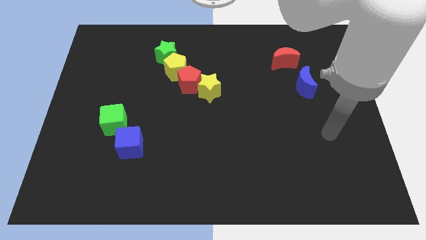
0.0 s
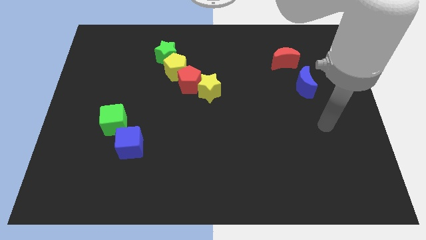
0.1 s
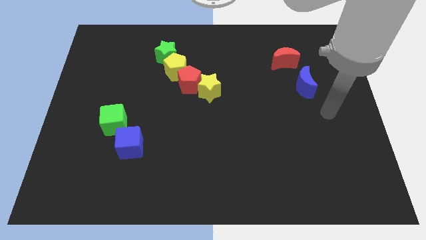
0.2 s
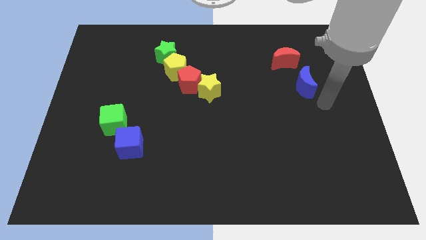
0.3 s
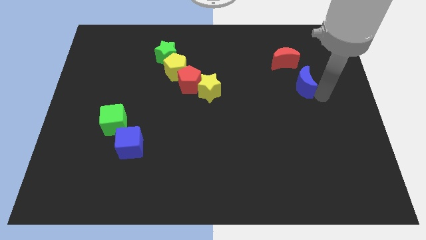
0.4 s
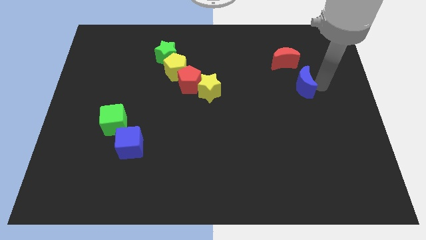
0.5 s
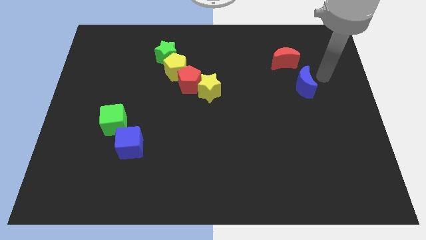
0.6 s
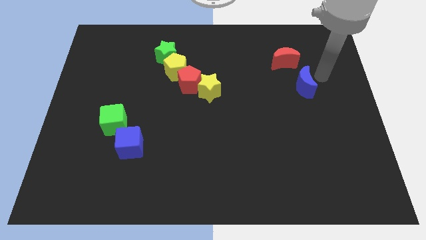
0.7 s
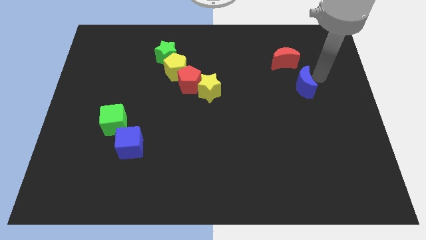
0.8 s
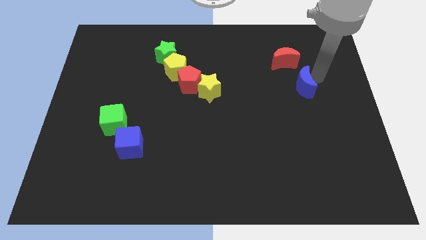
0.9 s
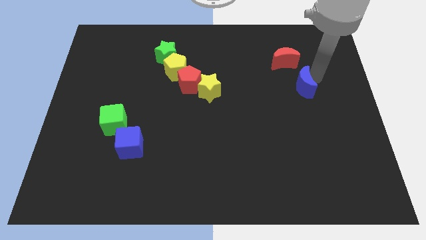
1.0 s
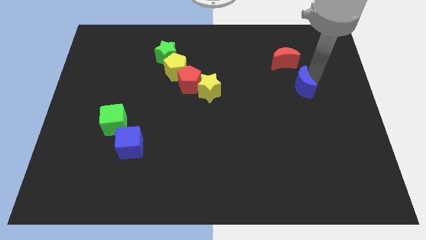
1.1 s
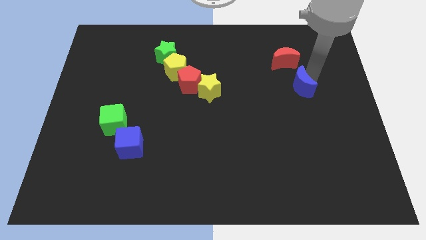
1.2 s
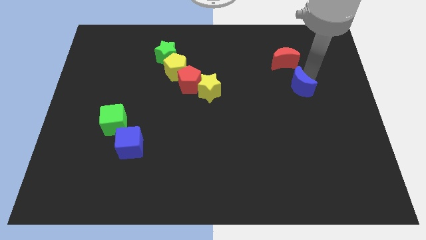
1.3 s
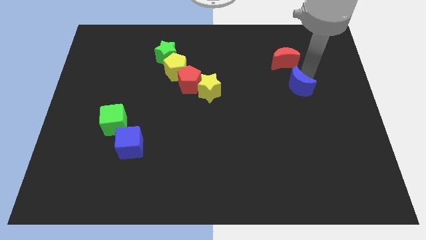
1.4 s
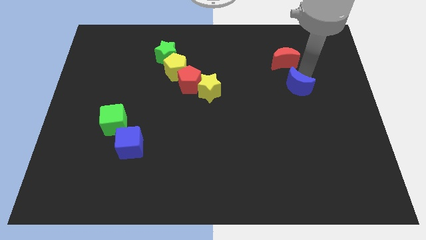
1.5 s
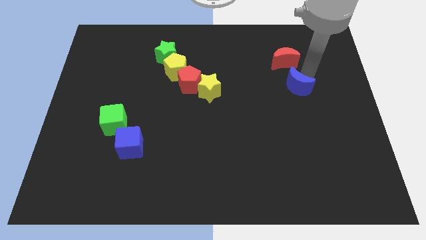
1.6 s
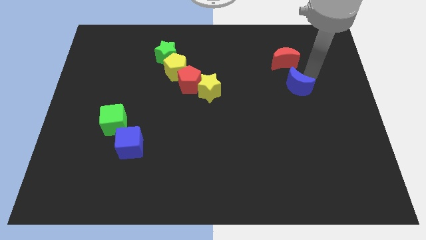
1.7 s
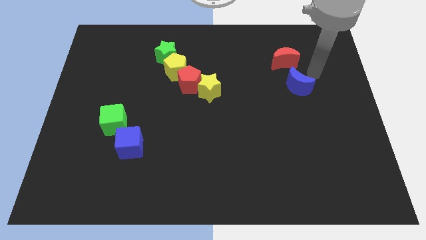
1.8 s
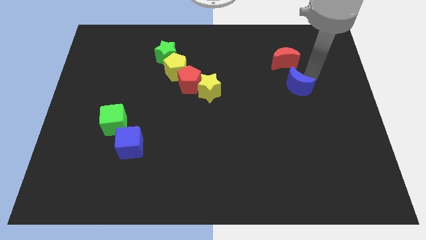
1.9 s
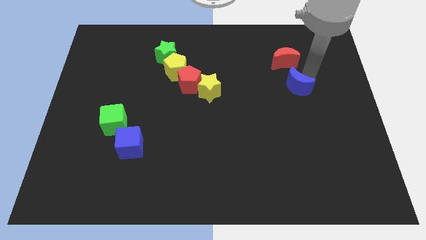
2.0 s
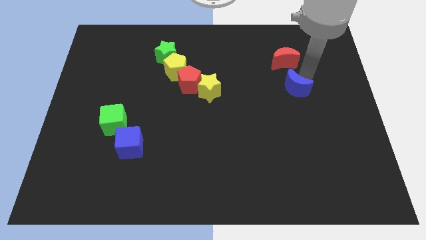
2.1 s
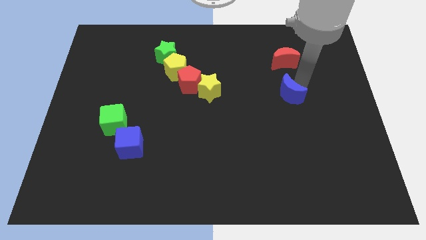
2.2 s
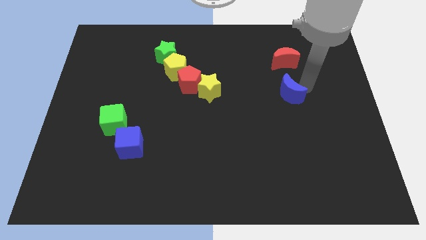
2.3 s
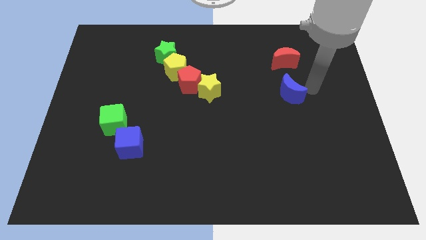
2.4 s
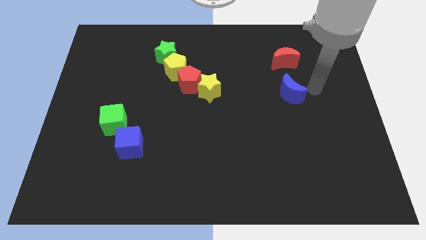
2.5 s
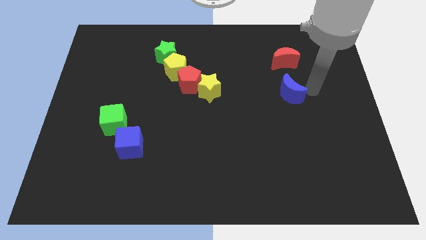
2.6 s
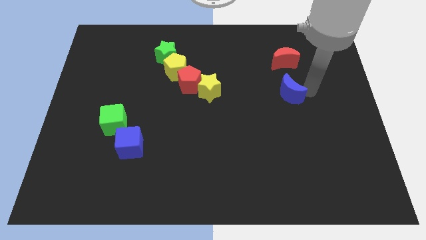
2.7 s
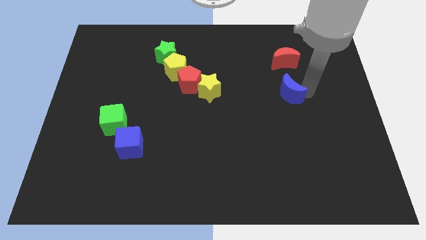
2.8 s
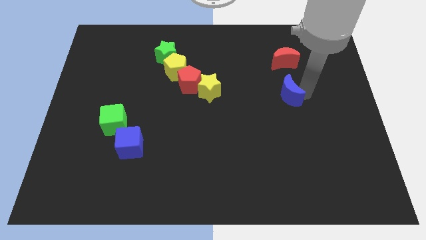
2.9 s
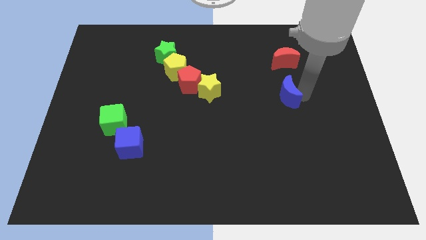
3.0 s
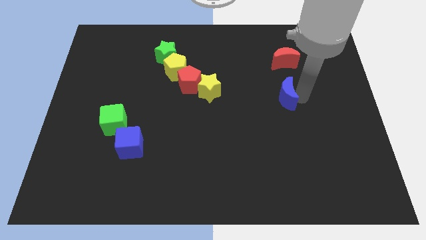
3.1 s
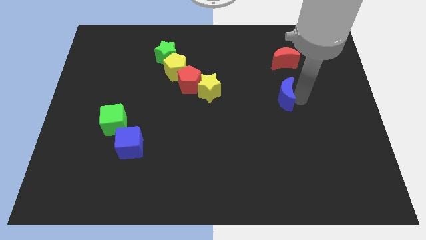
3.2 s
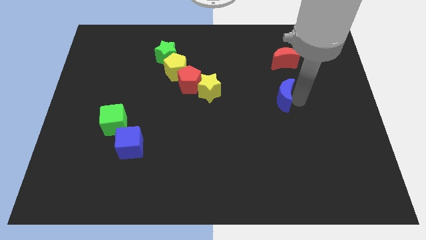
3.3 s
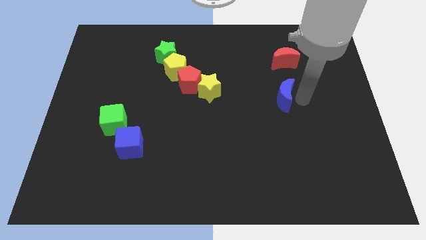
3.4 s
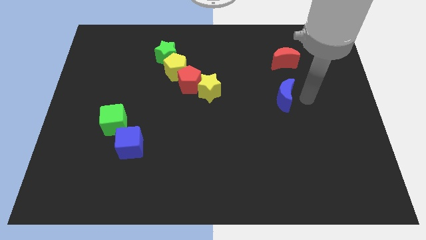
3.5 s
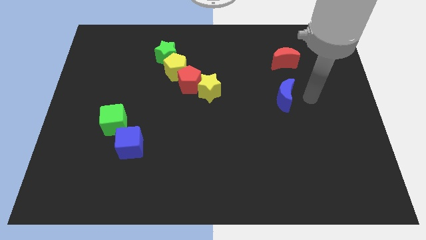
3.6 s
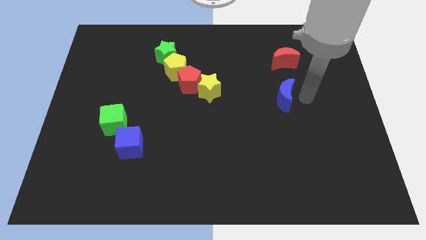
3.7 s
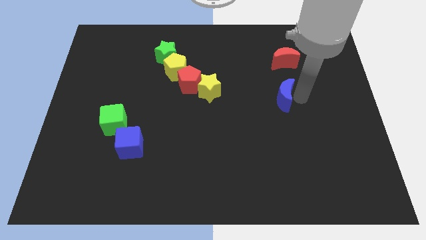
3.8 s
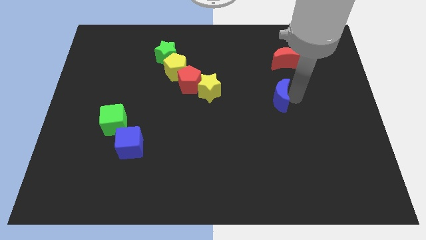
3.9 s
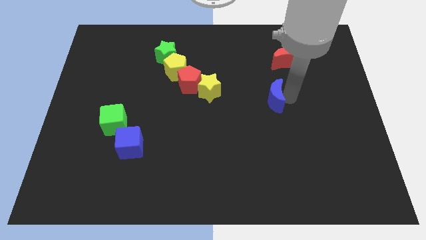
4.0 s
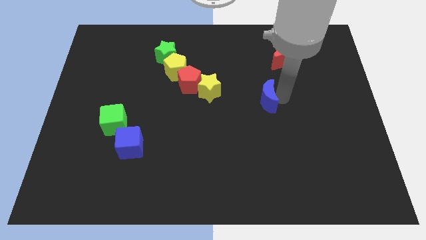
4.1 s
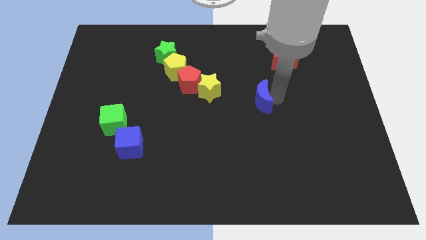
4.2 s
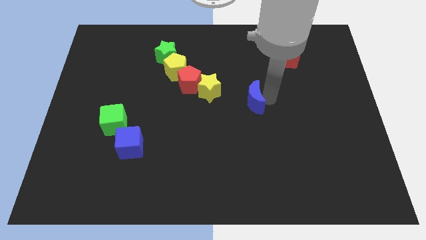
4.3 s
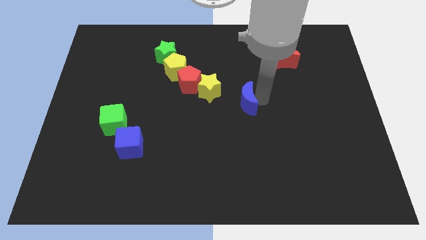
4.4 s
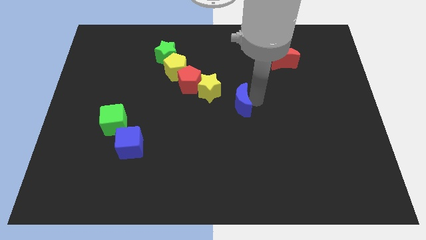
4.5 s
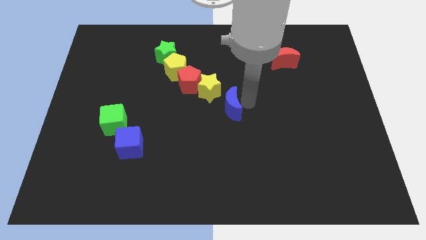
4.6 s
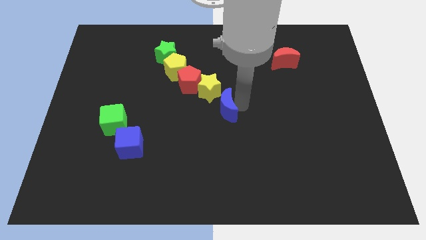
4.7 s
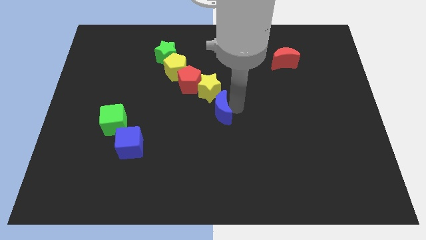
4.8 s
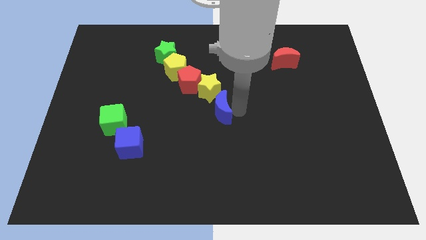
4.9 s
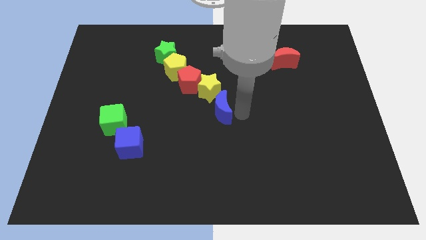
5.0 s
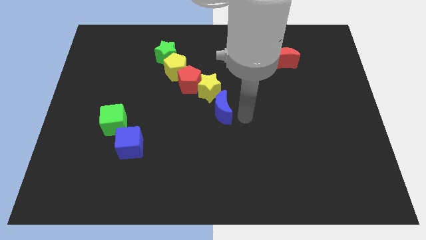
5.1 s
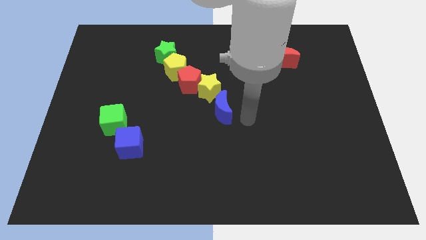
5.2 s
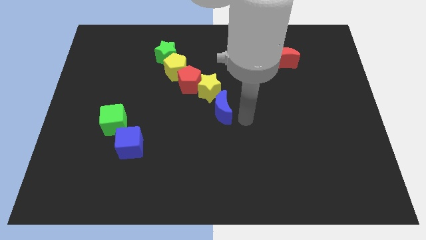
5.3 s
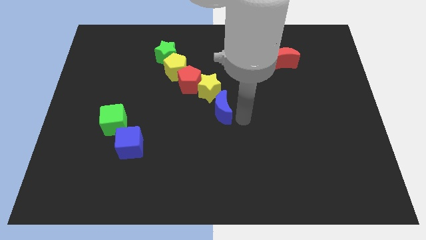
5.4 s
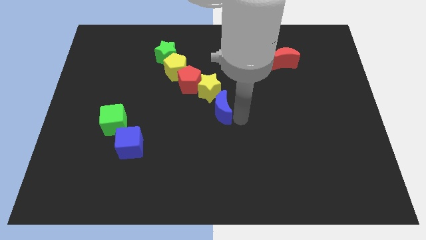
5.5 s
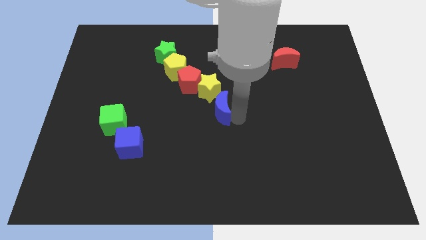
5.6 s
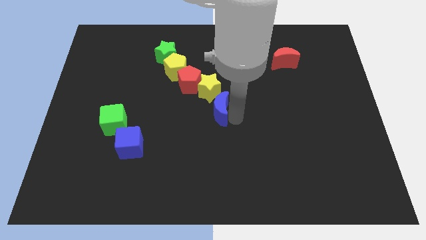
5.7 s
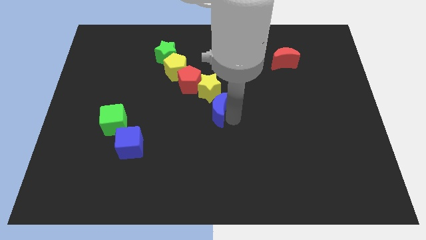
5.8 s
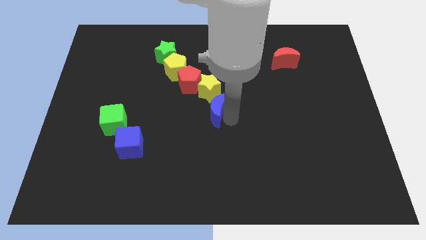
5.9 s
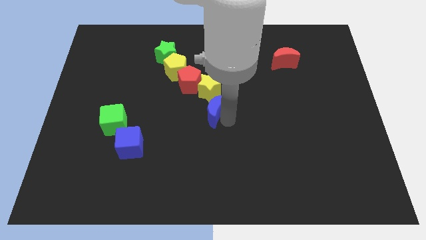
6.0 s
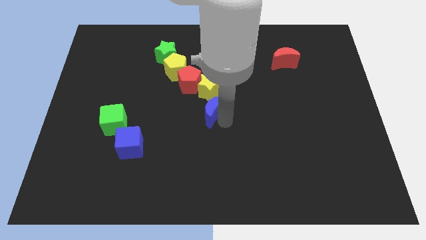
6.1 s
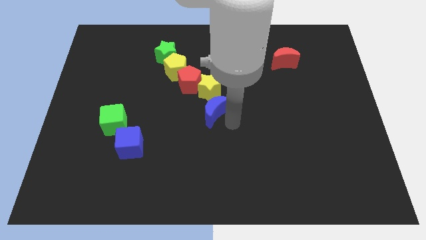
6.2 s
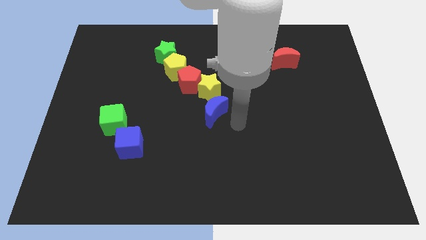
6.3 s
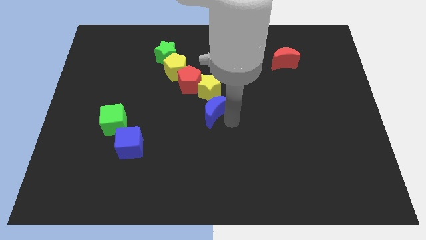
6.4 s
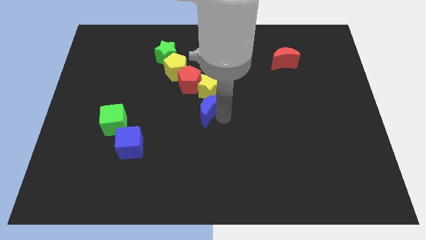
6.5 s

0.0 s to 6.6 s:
move the blue moon left

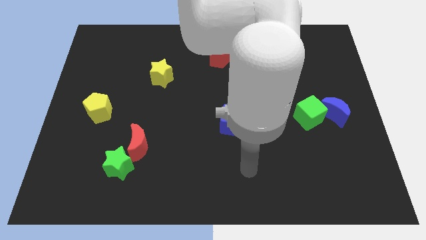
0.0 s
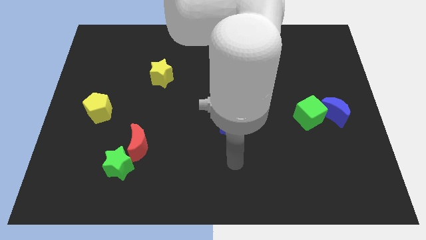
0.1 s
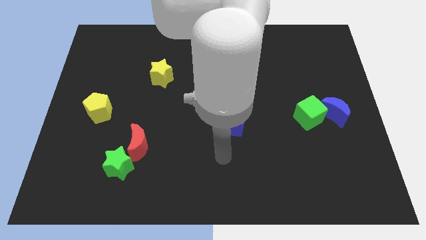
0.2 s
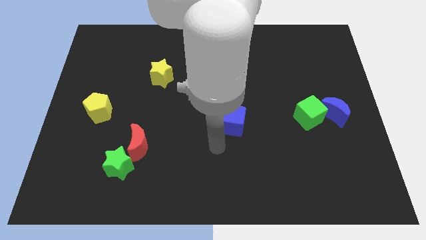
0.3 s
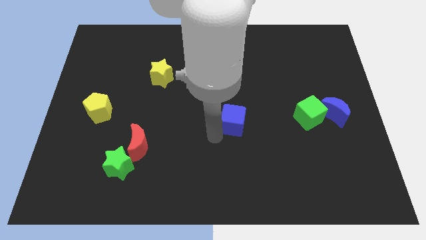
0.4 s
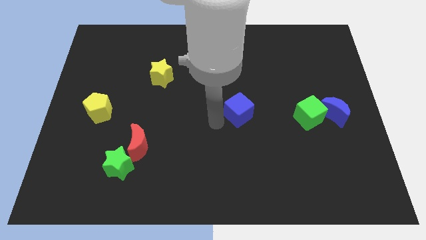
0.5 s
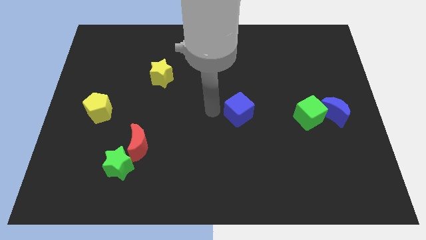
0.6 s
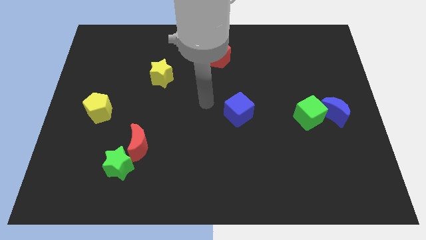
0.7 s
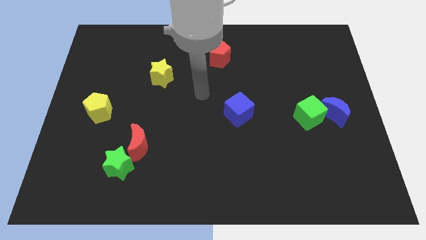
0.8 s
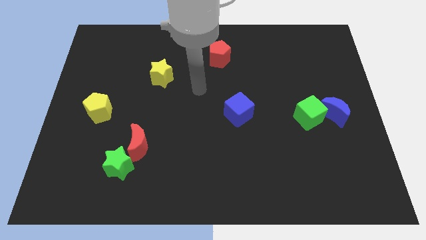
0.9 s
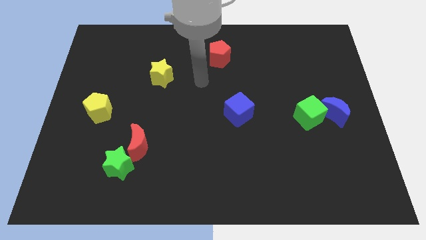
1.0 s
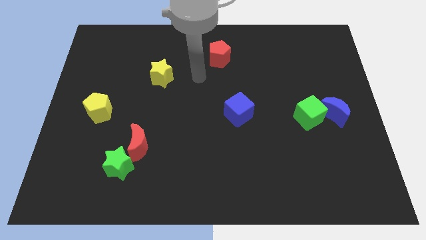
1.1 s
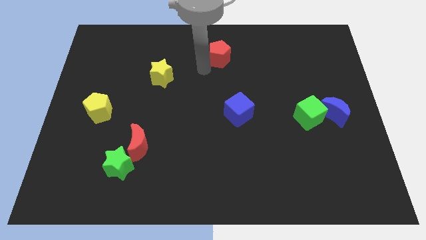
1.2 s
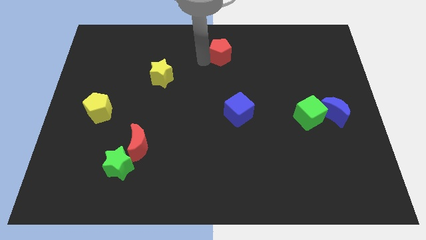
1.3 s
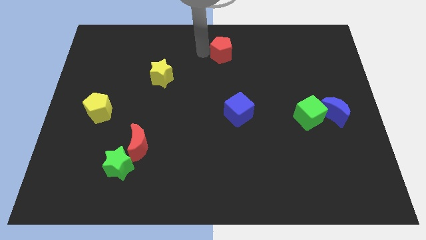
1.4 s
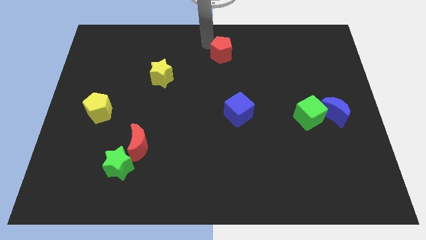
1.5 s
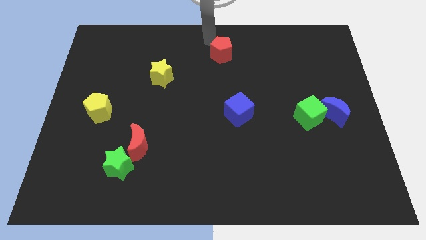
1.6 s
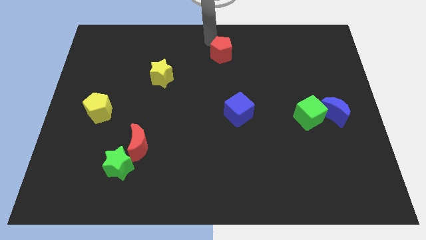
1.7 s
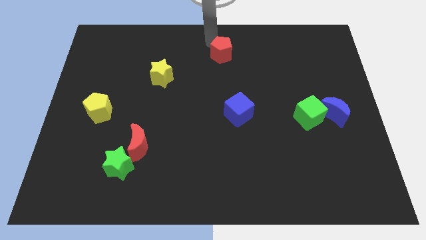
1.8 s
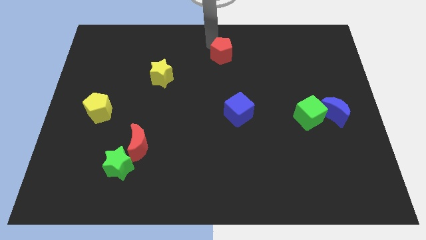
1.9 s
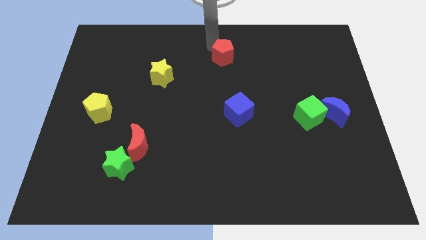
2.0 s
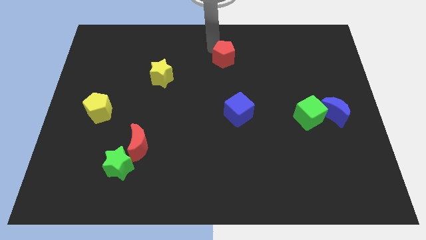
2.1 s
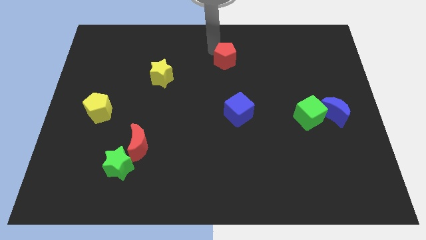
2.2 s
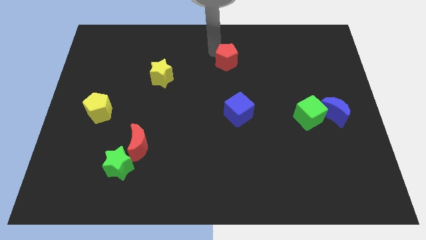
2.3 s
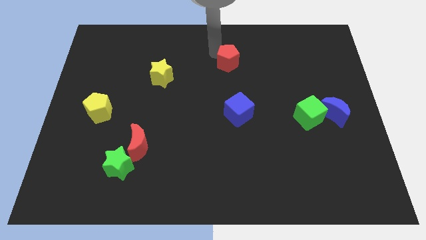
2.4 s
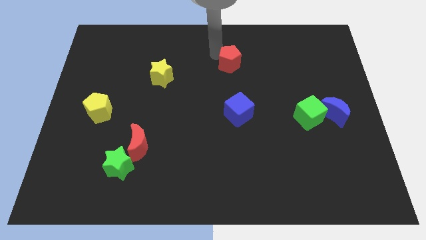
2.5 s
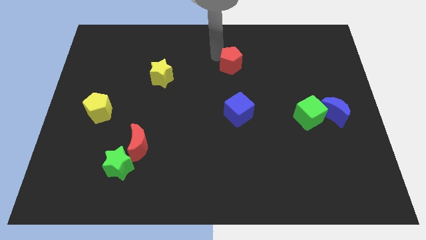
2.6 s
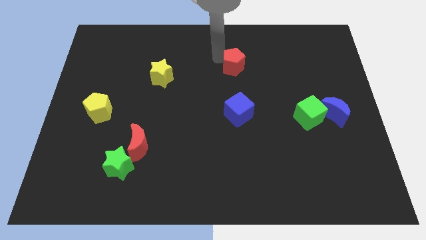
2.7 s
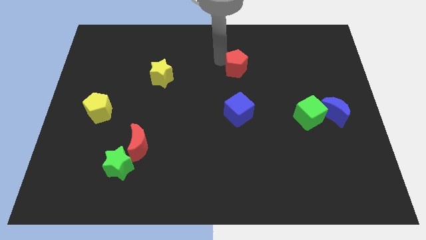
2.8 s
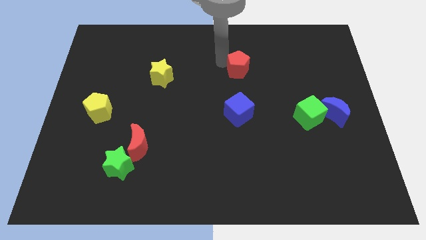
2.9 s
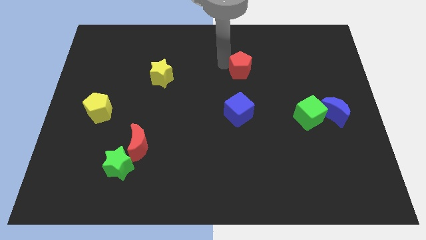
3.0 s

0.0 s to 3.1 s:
slide the red pentagon a bit downwards and then right
